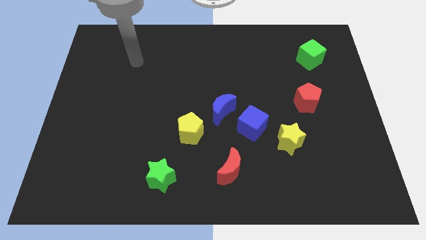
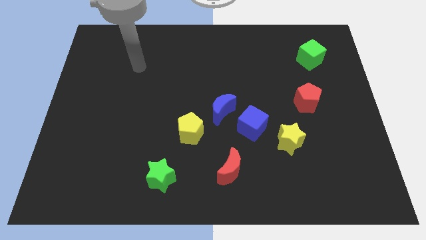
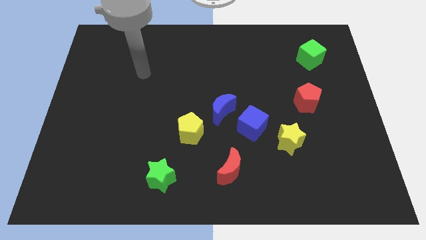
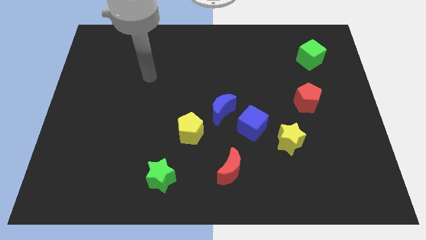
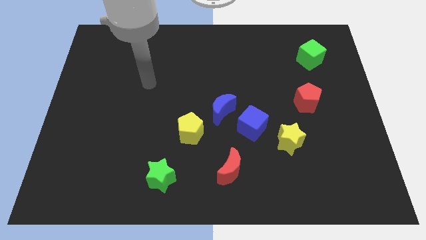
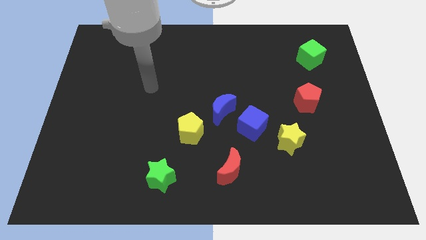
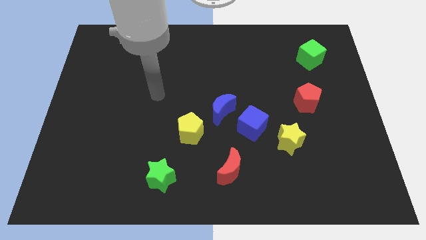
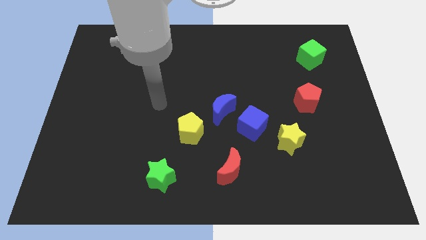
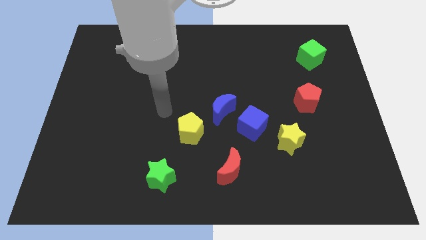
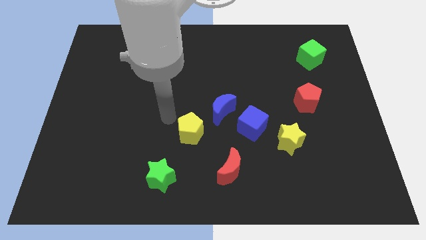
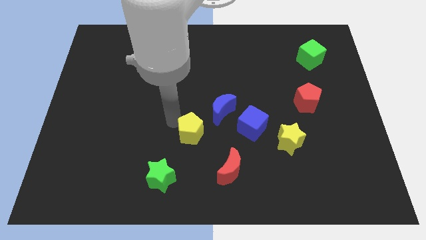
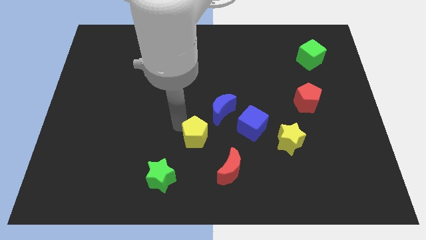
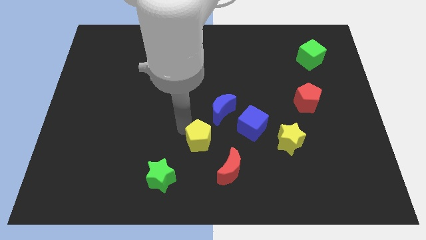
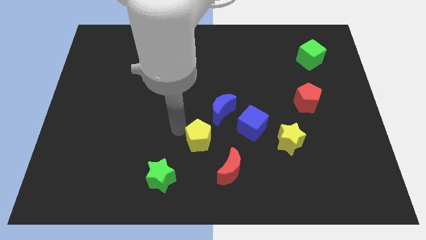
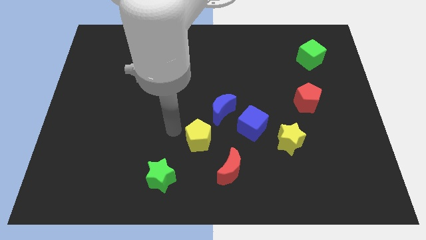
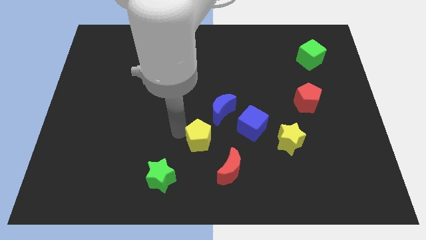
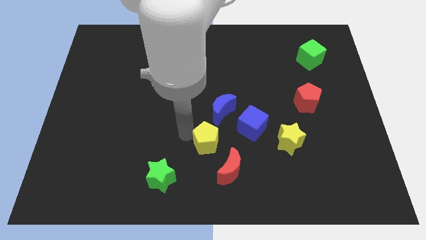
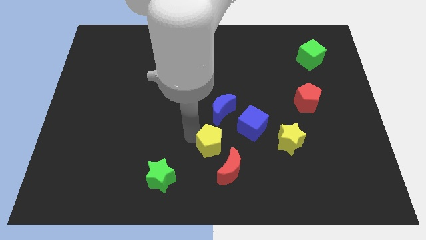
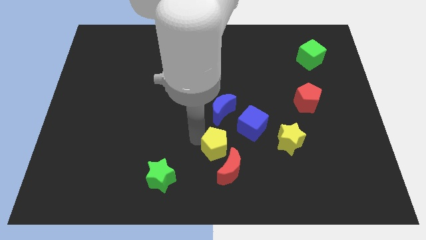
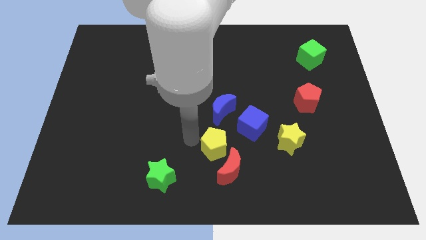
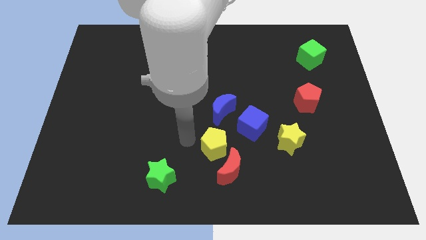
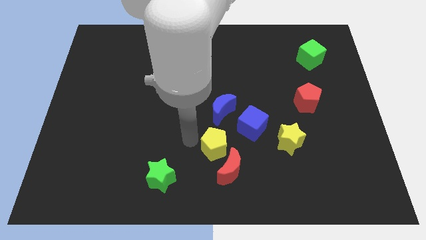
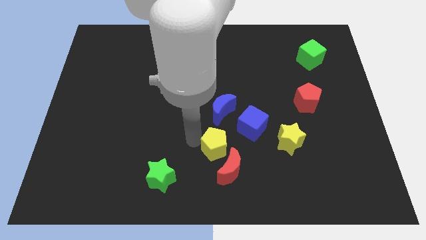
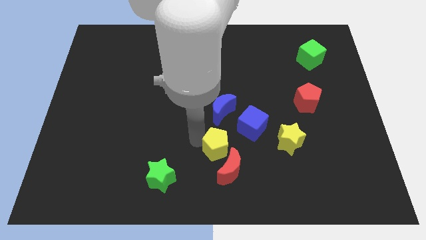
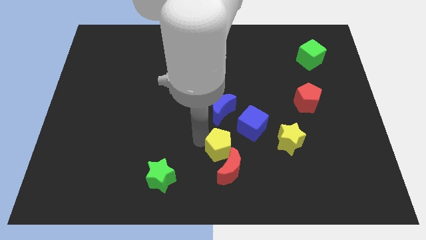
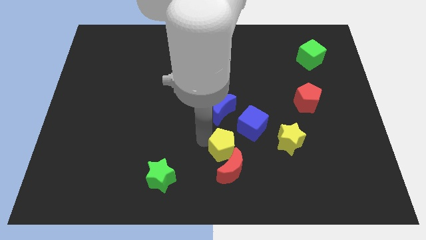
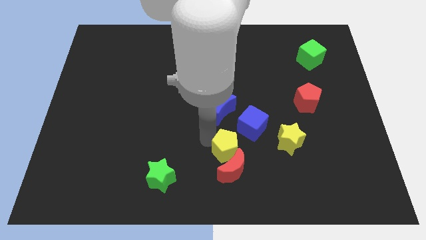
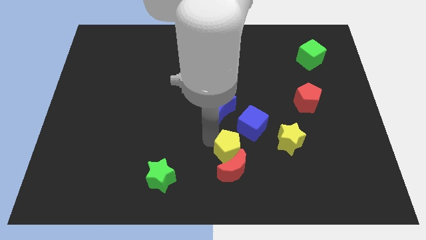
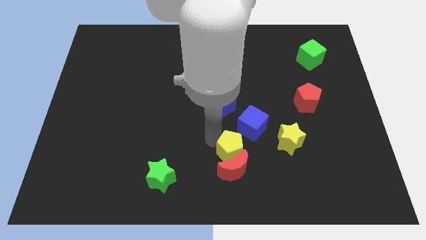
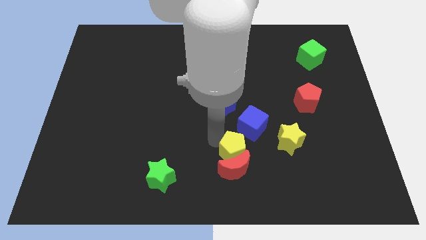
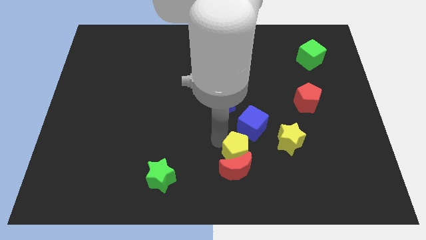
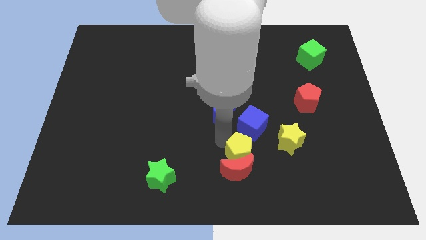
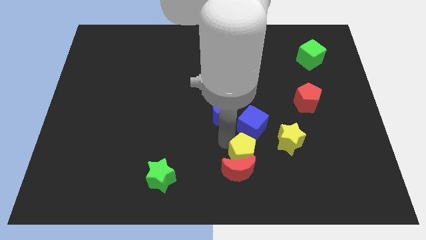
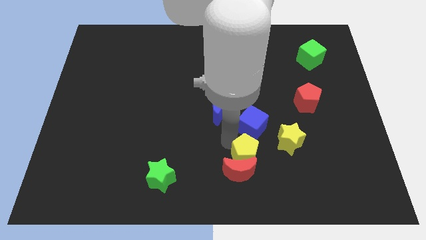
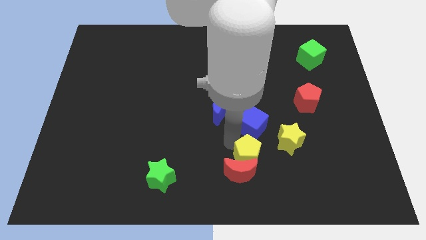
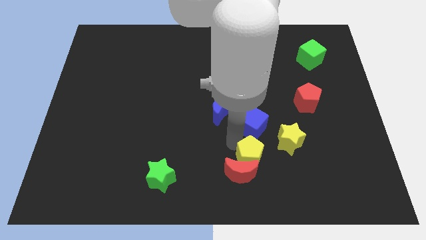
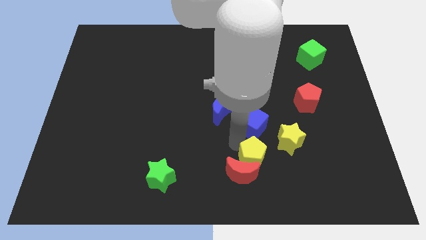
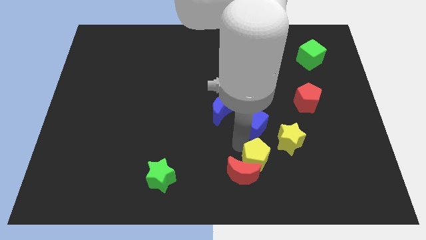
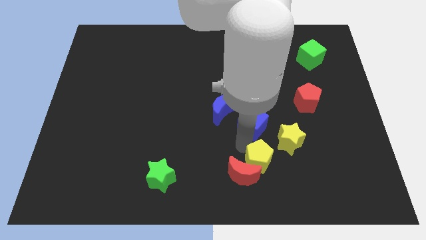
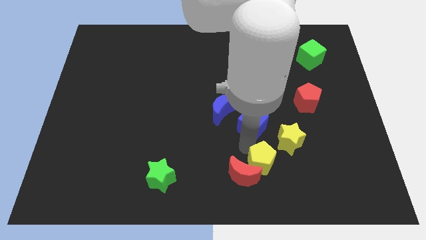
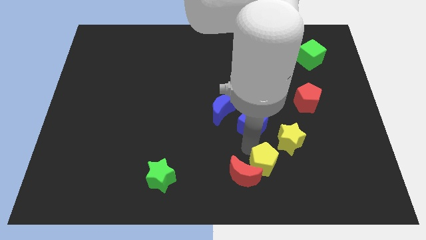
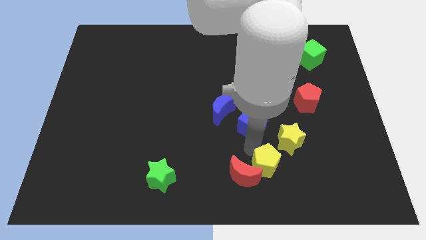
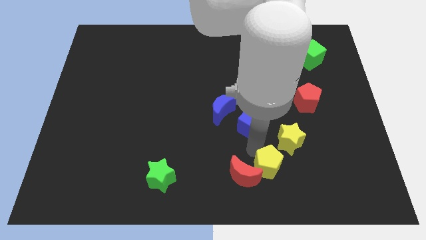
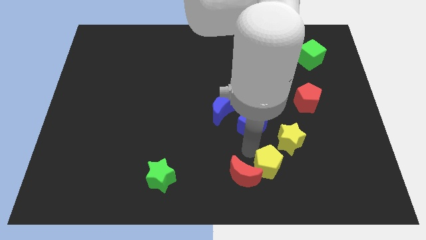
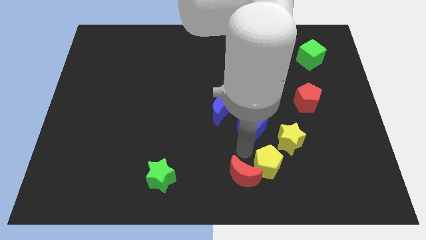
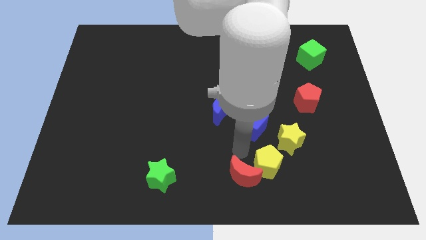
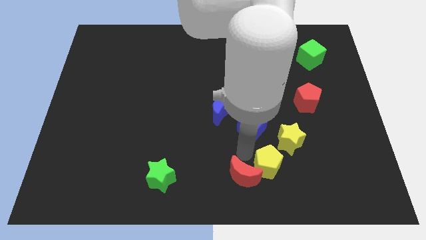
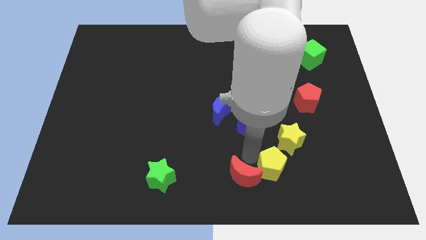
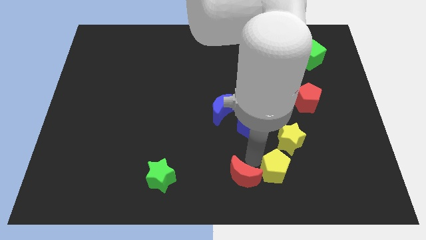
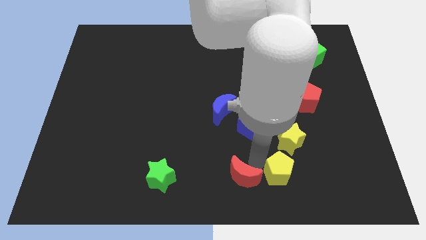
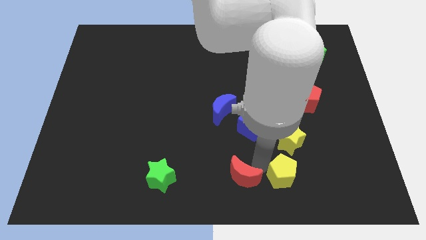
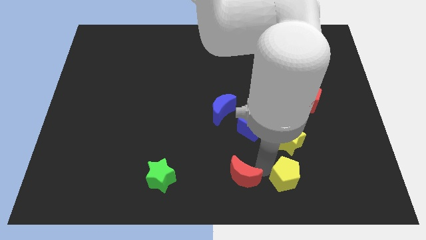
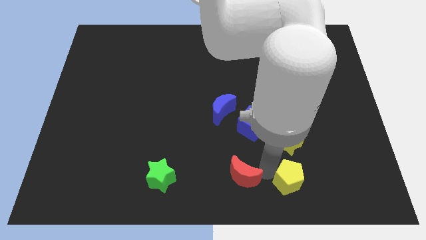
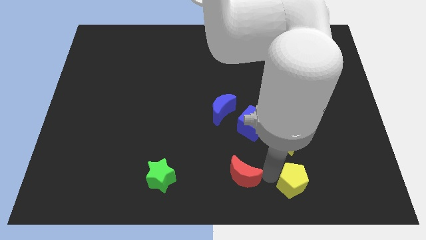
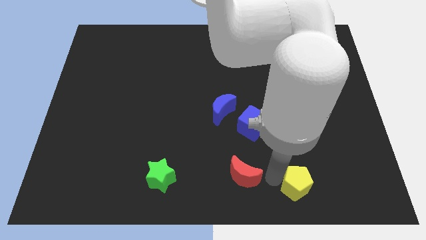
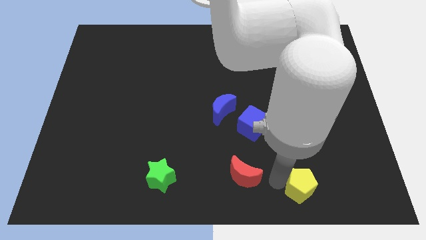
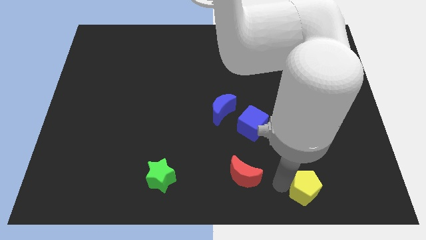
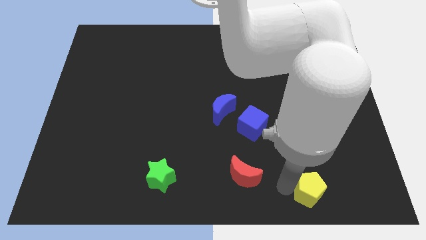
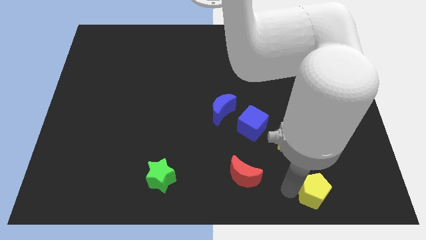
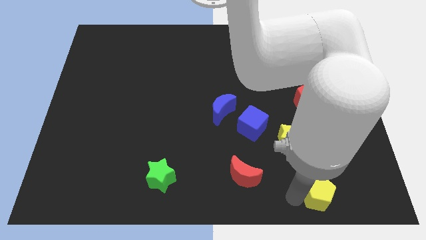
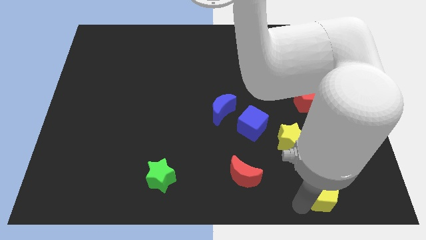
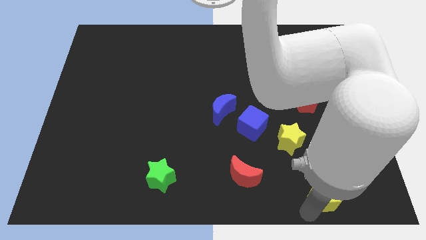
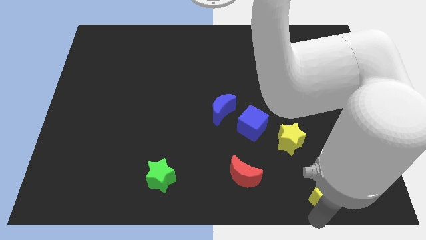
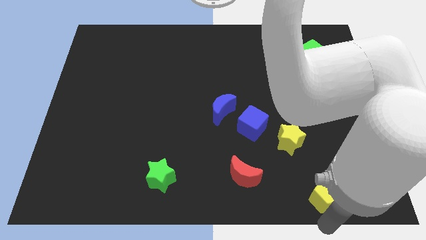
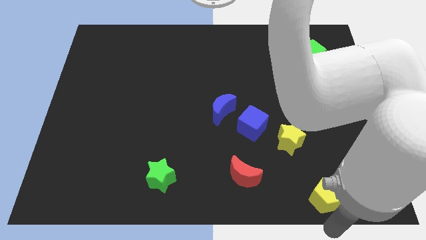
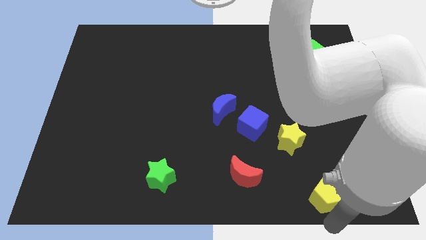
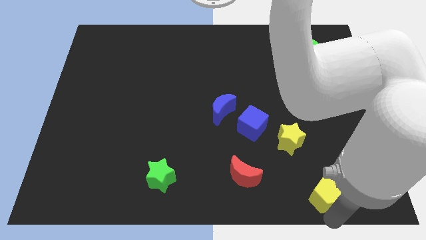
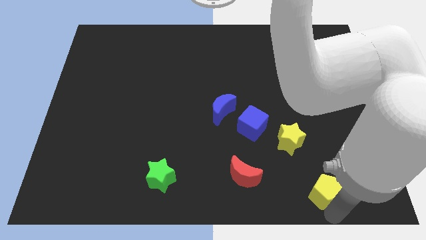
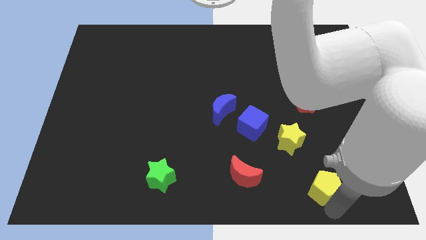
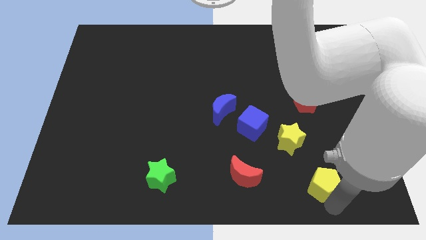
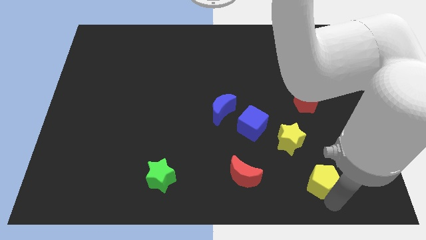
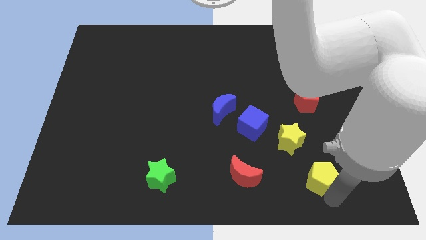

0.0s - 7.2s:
slide the yellow pentagon right

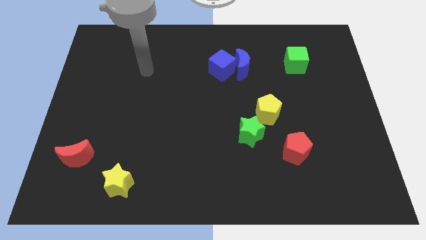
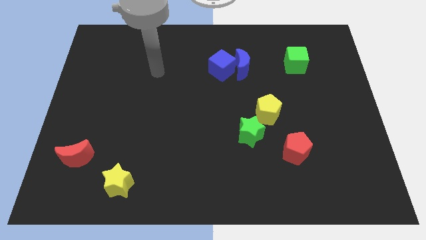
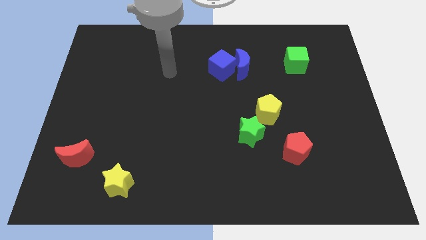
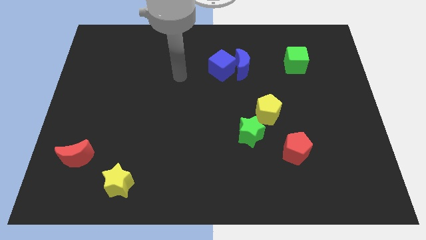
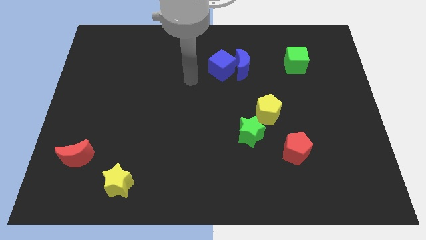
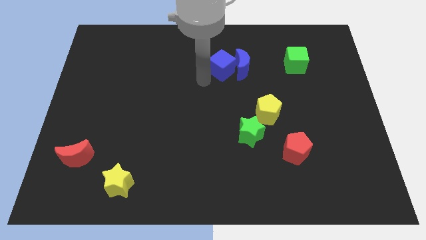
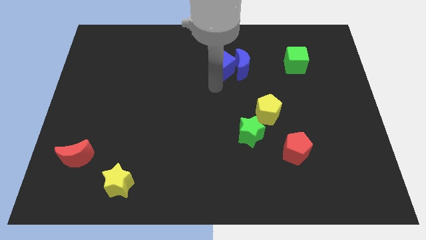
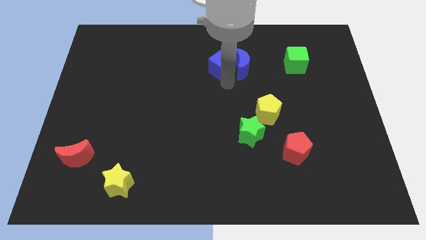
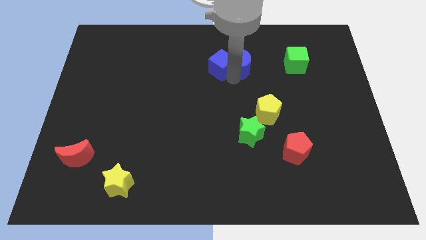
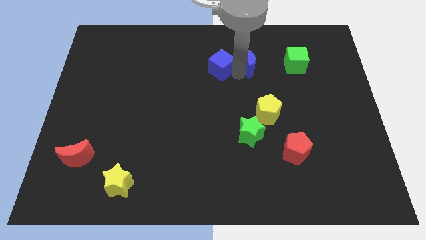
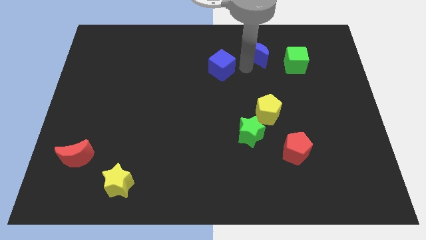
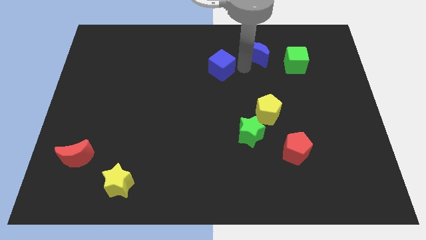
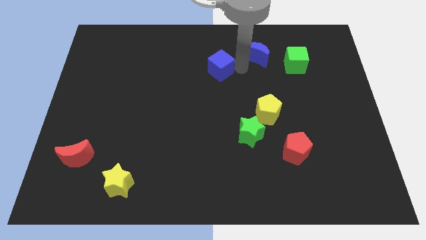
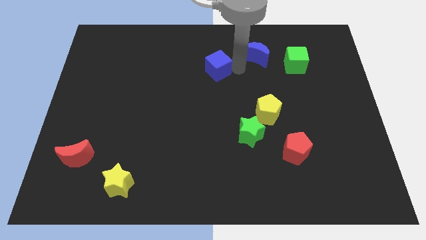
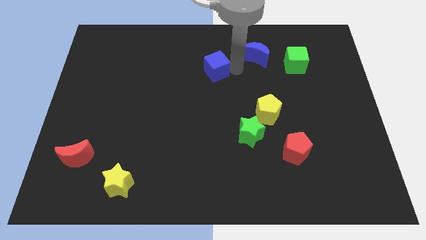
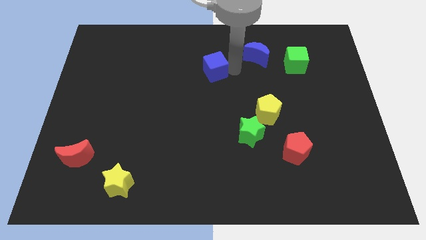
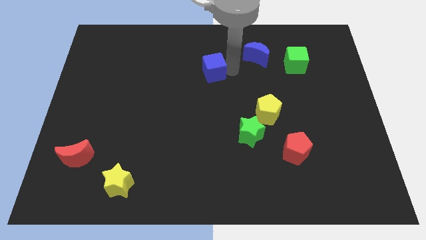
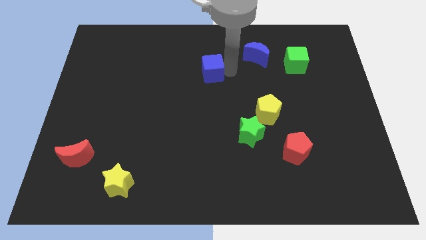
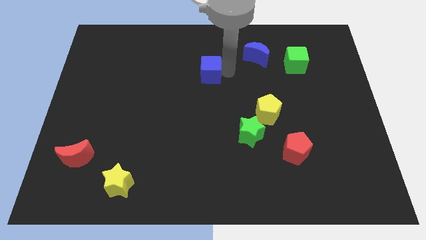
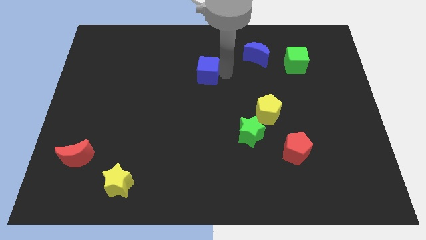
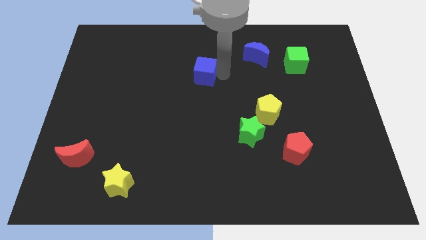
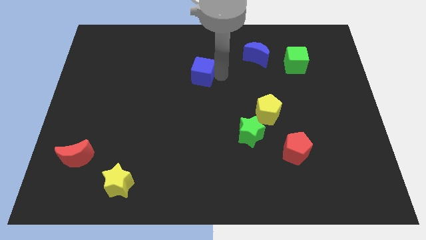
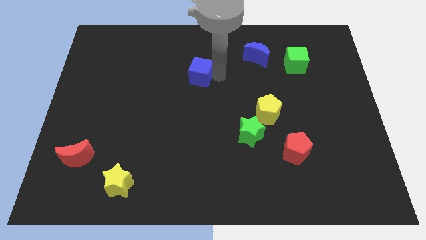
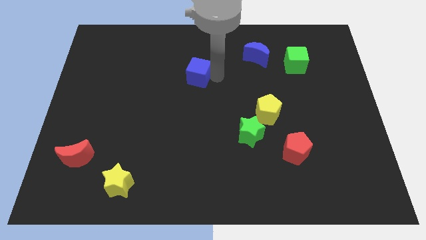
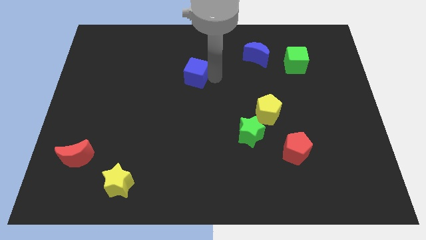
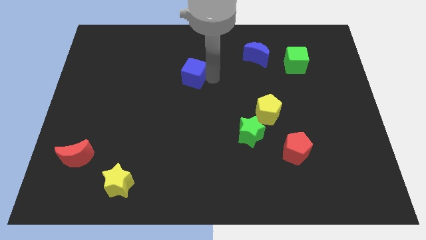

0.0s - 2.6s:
push the blue cube a little left
